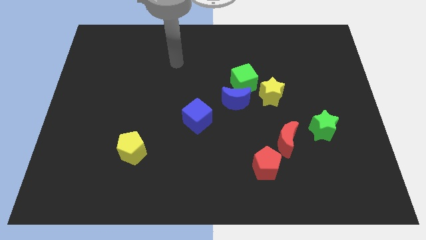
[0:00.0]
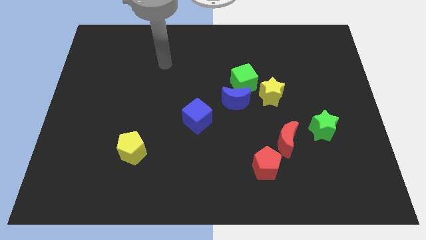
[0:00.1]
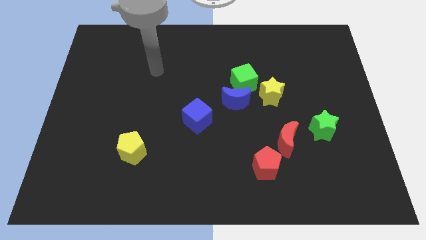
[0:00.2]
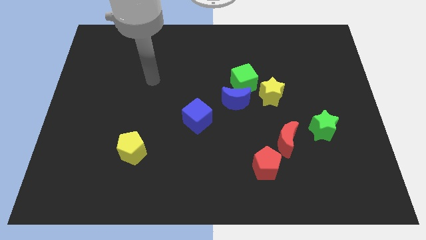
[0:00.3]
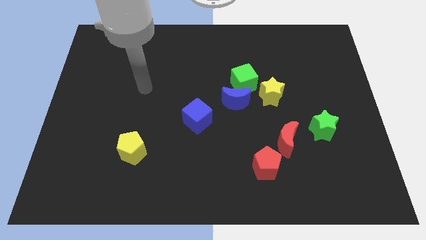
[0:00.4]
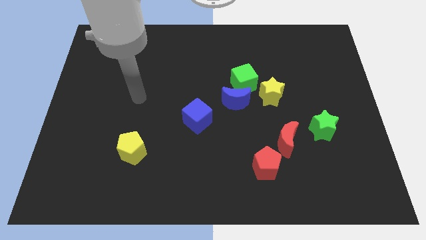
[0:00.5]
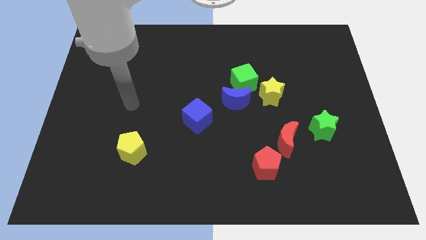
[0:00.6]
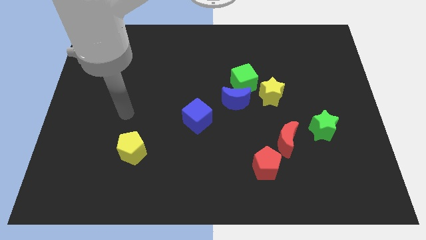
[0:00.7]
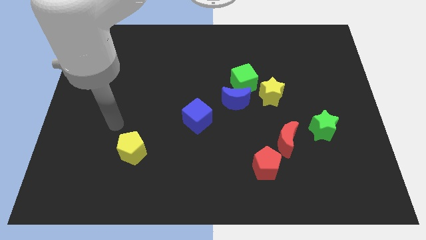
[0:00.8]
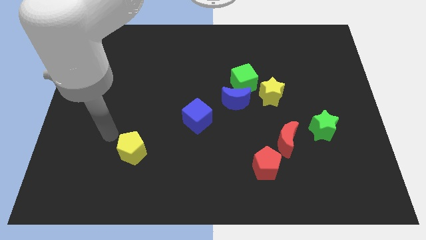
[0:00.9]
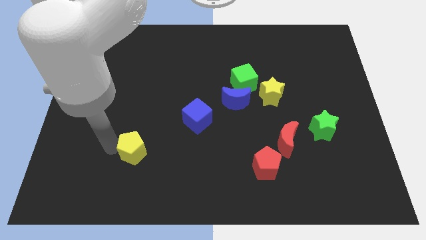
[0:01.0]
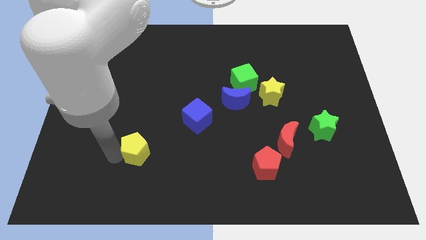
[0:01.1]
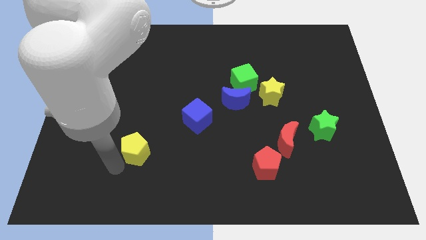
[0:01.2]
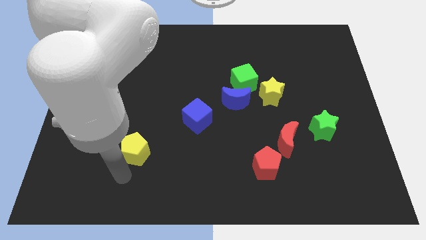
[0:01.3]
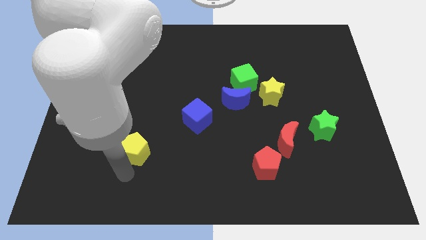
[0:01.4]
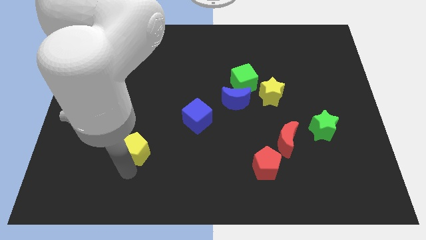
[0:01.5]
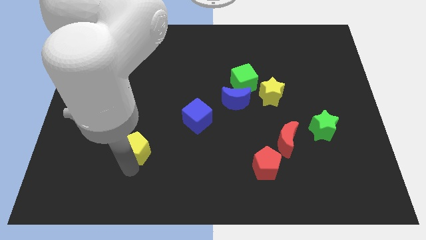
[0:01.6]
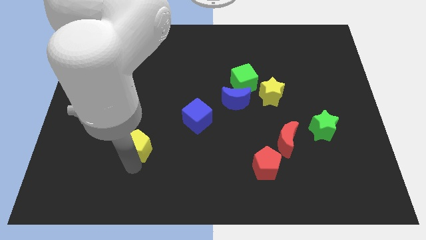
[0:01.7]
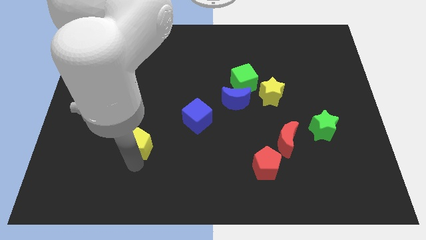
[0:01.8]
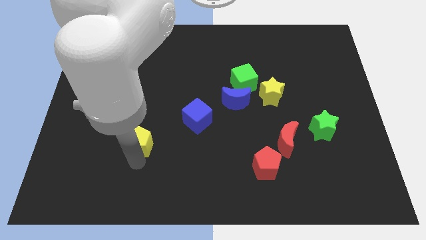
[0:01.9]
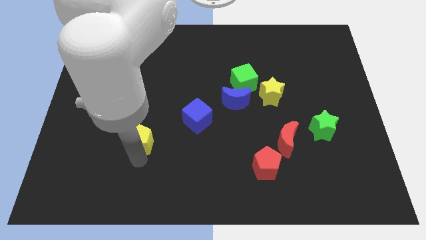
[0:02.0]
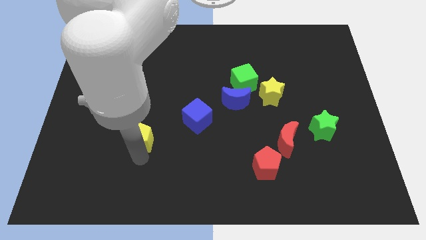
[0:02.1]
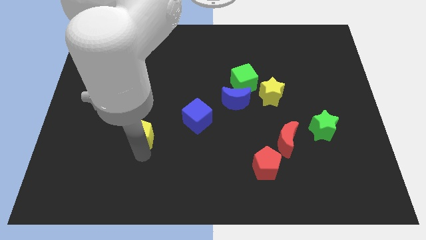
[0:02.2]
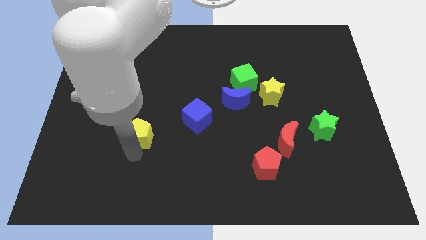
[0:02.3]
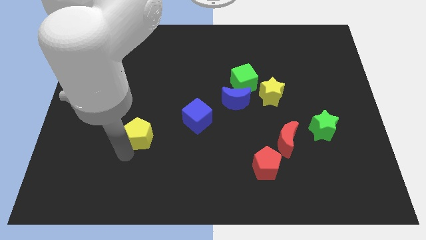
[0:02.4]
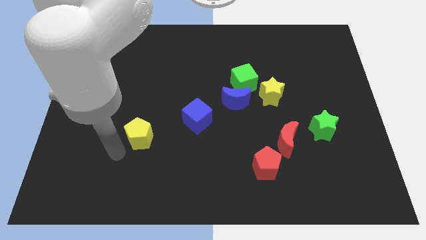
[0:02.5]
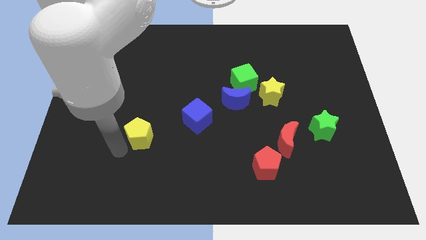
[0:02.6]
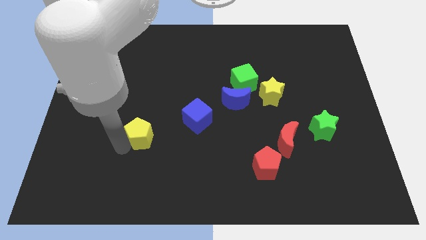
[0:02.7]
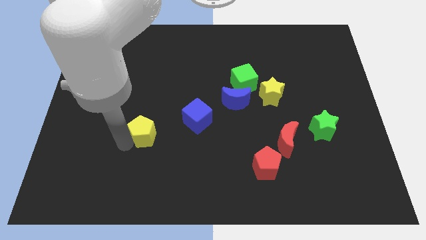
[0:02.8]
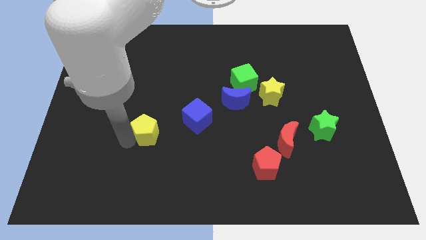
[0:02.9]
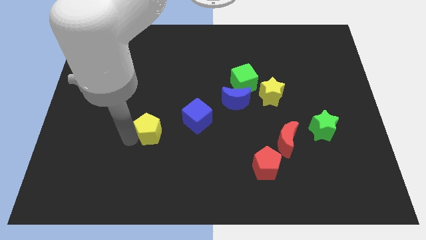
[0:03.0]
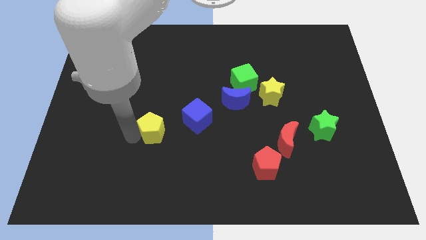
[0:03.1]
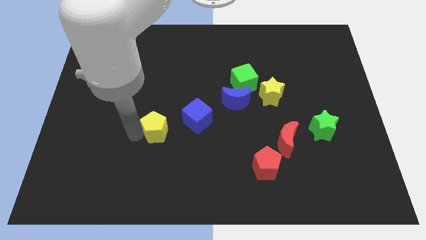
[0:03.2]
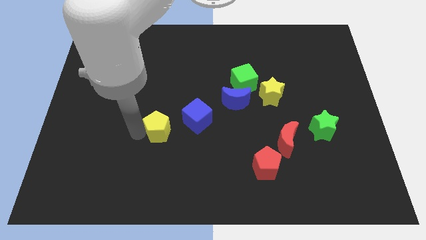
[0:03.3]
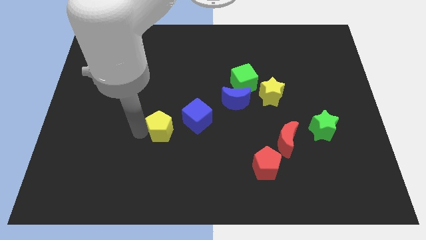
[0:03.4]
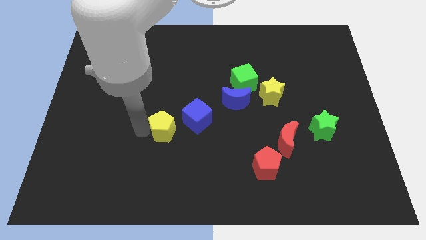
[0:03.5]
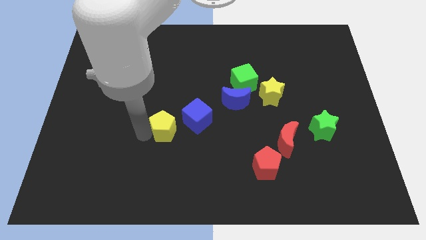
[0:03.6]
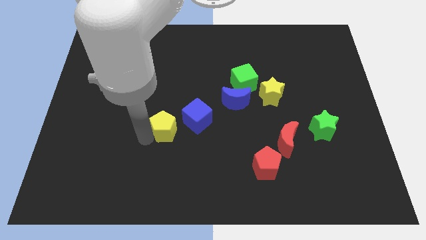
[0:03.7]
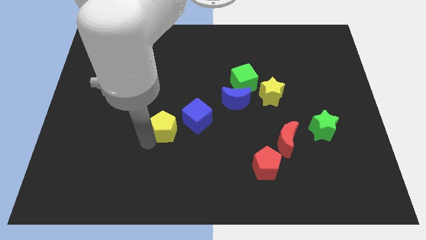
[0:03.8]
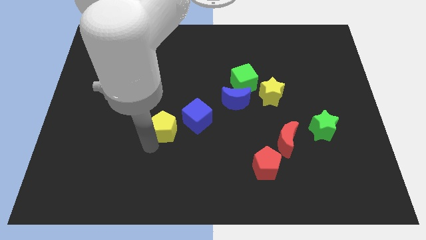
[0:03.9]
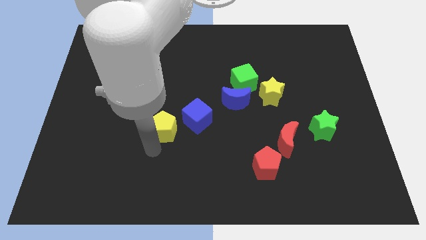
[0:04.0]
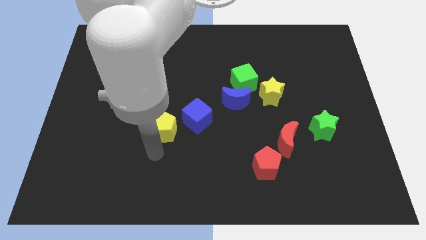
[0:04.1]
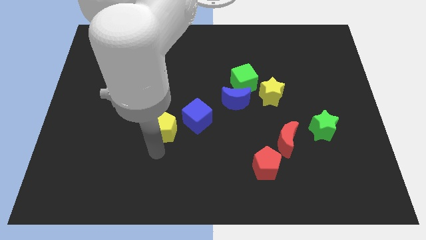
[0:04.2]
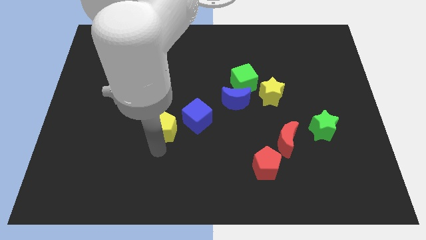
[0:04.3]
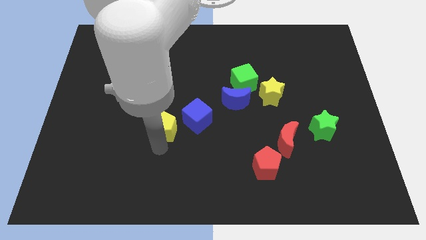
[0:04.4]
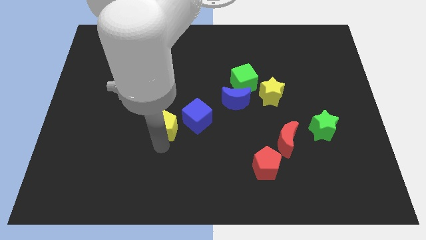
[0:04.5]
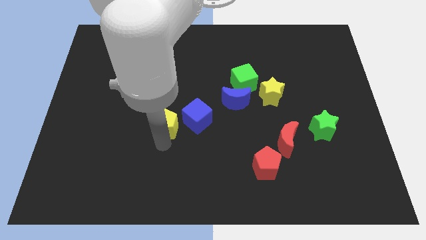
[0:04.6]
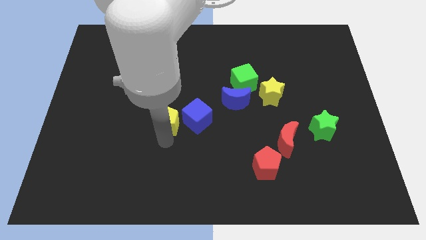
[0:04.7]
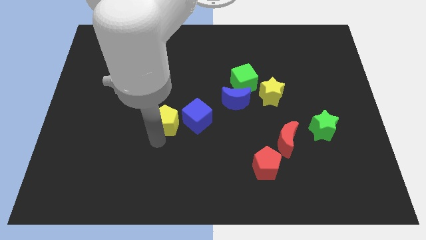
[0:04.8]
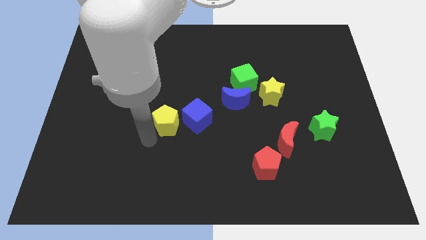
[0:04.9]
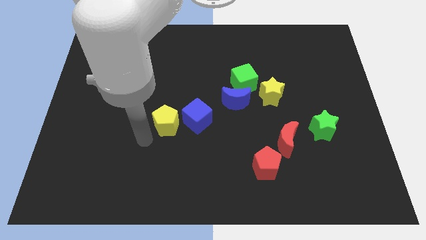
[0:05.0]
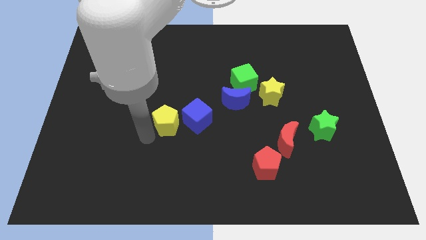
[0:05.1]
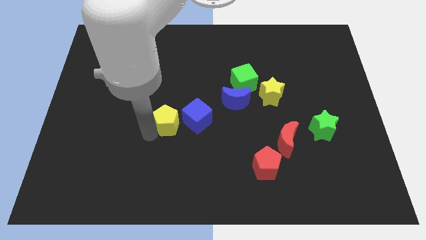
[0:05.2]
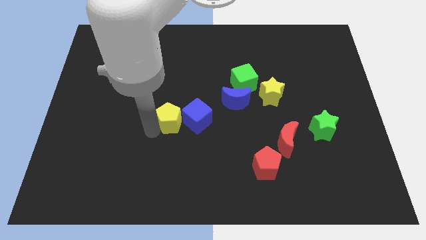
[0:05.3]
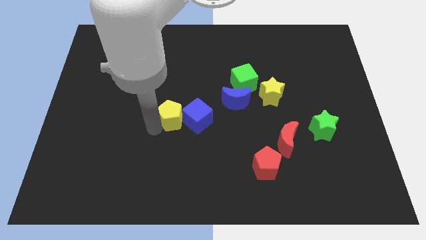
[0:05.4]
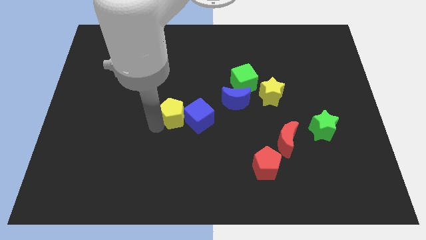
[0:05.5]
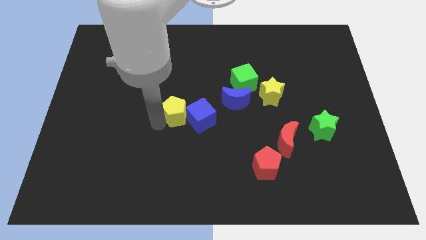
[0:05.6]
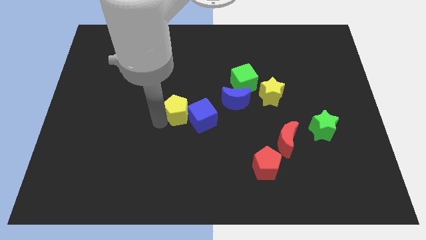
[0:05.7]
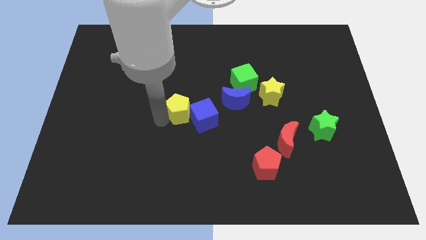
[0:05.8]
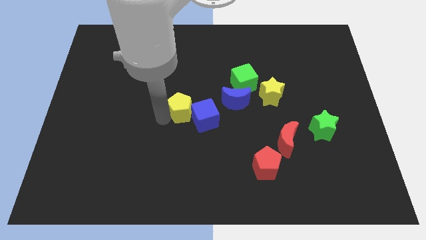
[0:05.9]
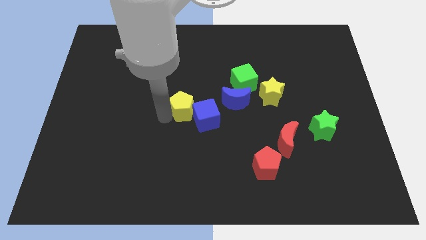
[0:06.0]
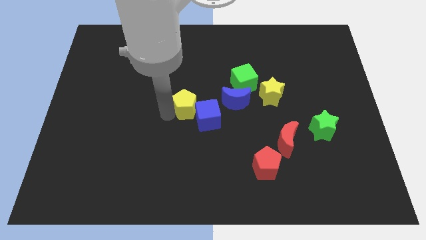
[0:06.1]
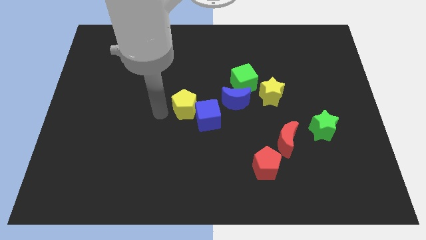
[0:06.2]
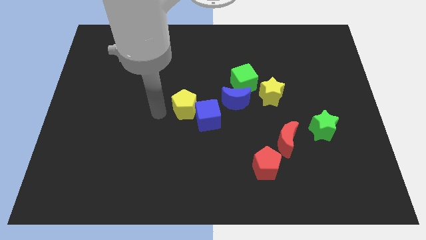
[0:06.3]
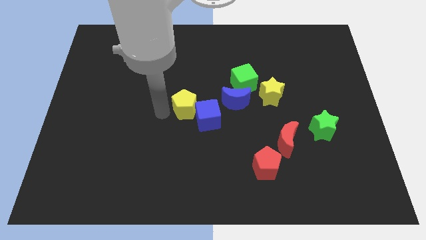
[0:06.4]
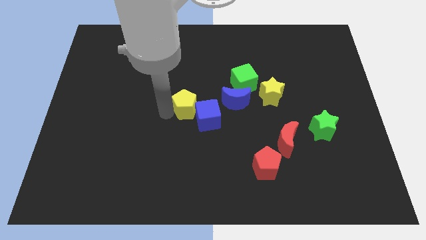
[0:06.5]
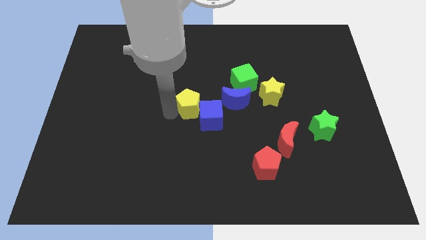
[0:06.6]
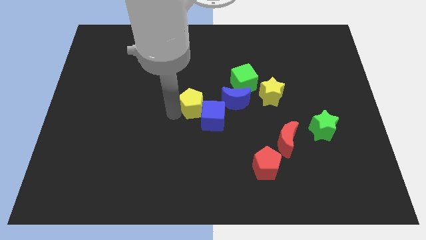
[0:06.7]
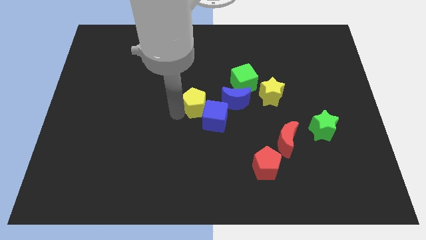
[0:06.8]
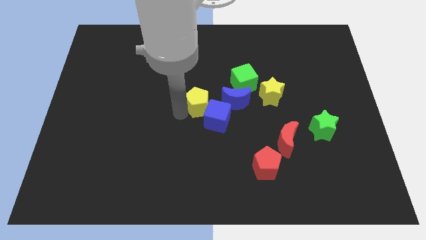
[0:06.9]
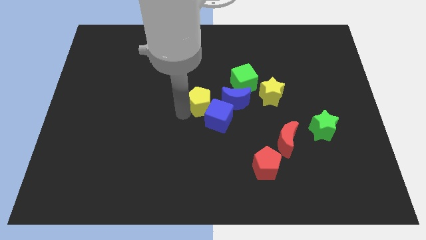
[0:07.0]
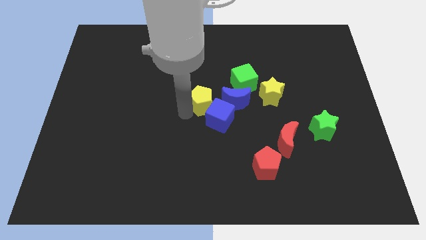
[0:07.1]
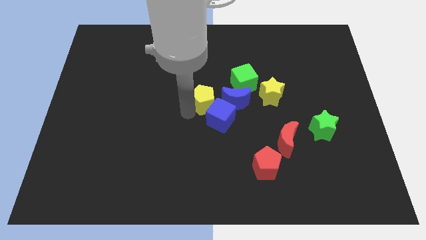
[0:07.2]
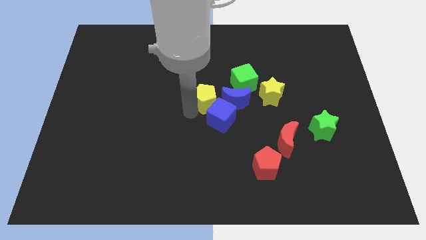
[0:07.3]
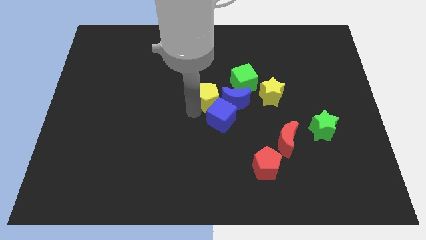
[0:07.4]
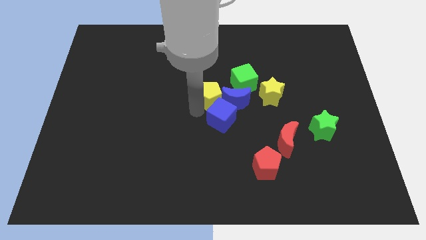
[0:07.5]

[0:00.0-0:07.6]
slide the yellow pentagon towards the blue moon
